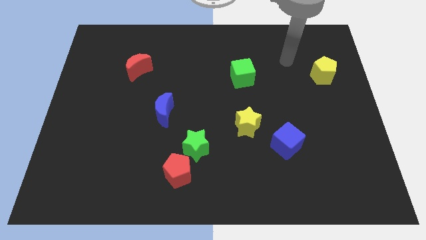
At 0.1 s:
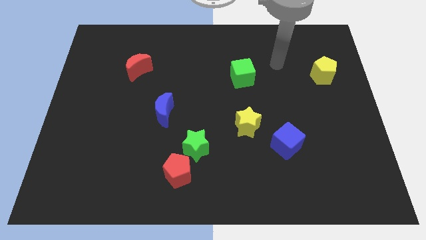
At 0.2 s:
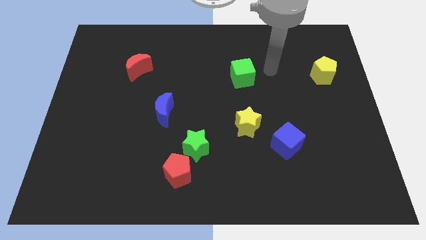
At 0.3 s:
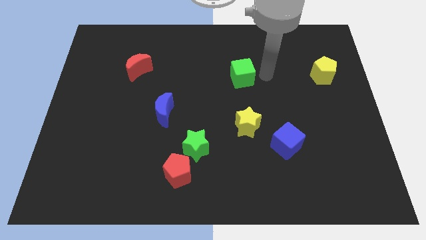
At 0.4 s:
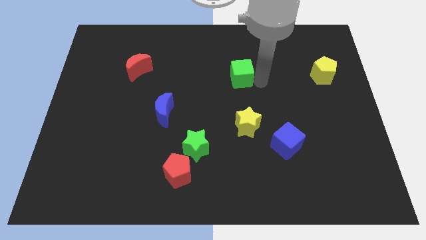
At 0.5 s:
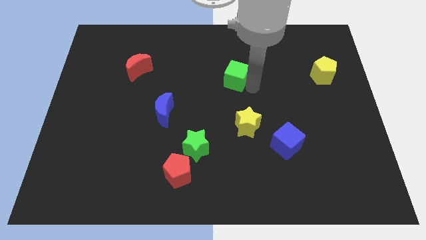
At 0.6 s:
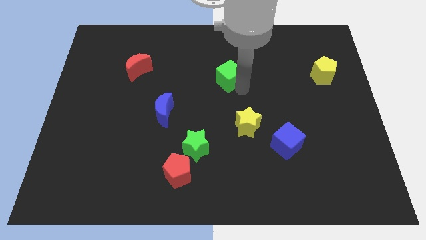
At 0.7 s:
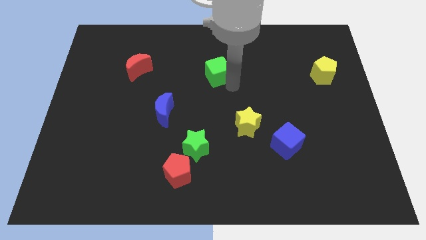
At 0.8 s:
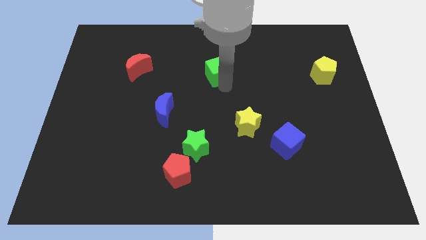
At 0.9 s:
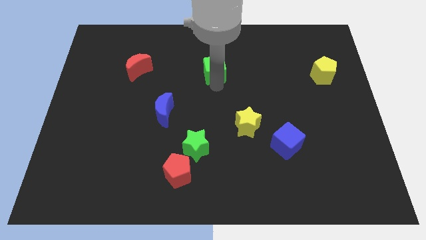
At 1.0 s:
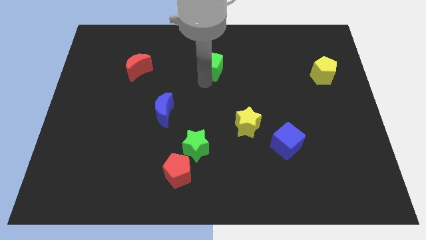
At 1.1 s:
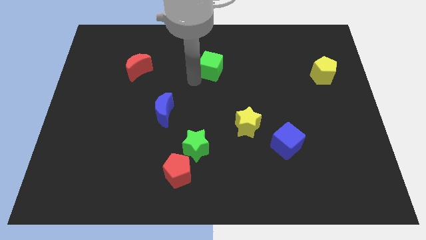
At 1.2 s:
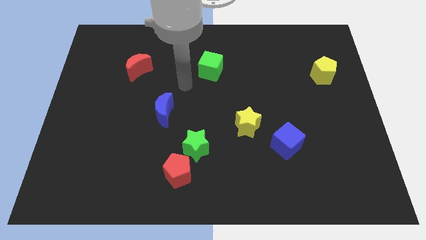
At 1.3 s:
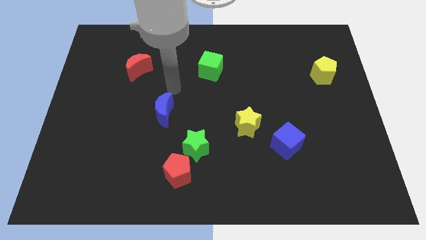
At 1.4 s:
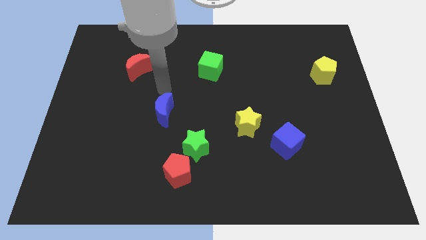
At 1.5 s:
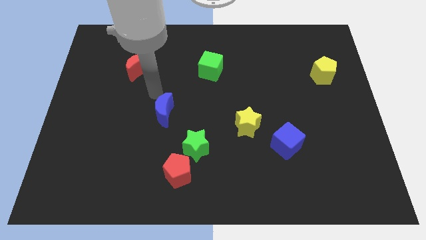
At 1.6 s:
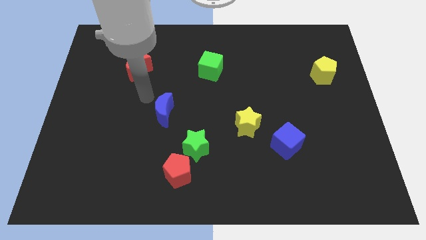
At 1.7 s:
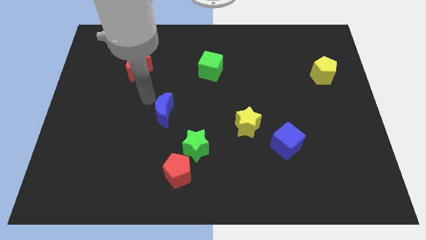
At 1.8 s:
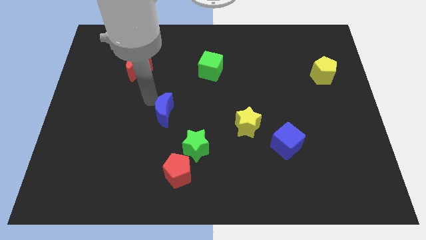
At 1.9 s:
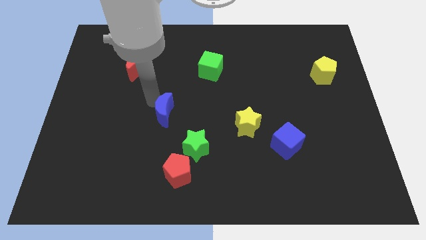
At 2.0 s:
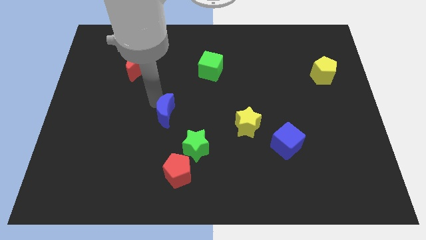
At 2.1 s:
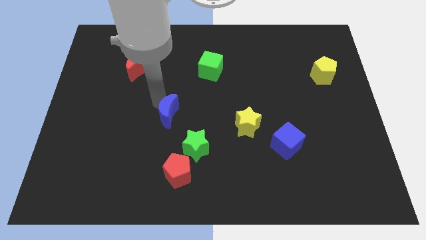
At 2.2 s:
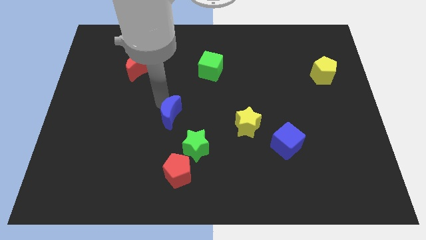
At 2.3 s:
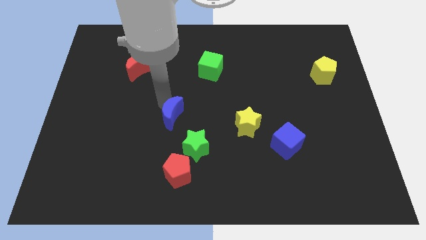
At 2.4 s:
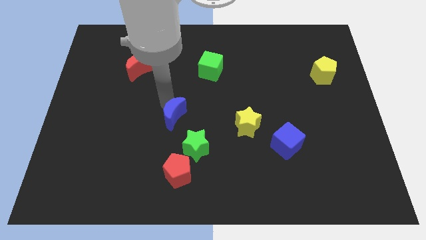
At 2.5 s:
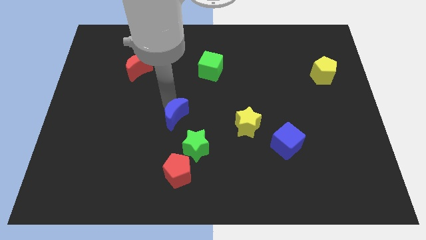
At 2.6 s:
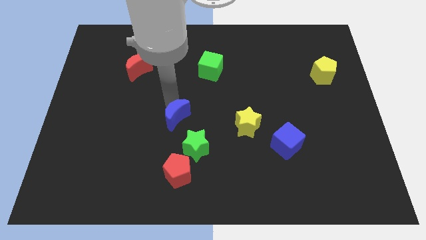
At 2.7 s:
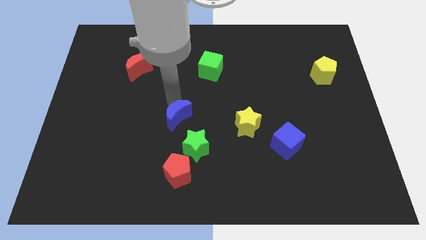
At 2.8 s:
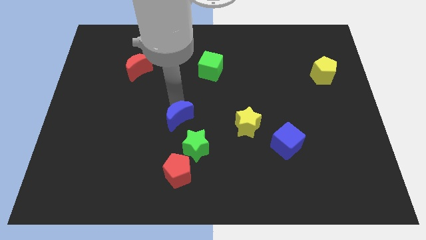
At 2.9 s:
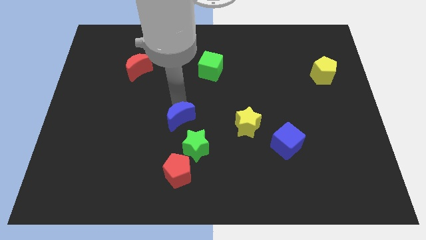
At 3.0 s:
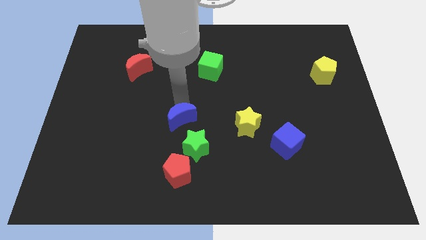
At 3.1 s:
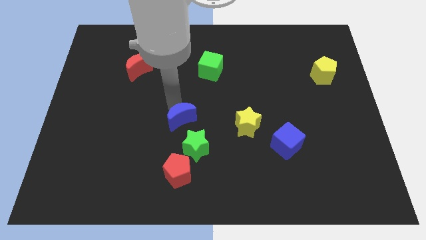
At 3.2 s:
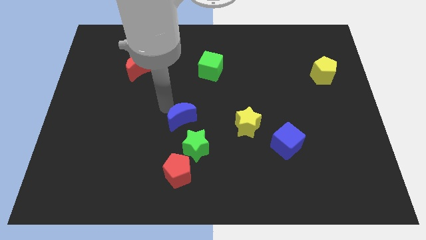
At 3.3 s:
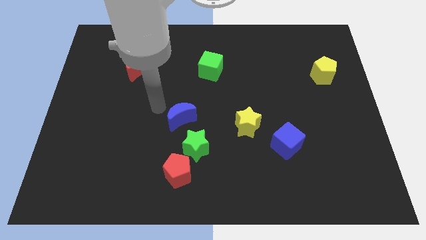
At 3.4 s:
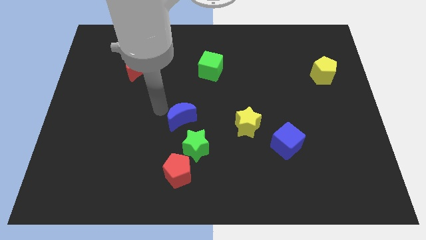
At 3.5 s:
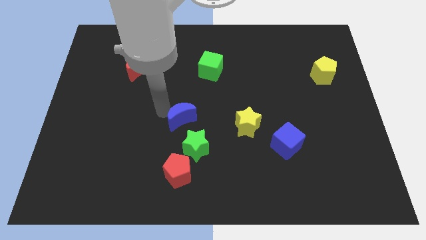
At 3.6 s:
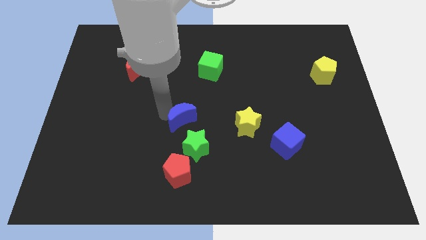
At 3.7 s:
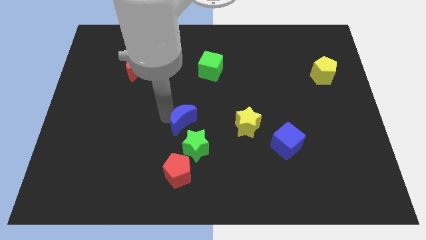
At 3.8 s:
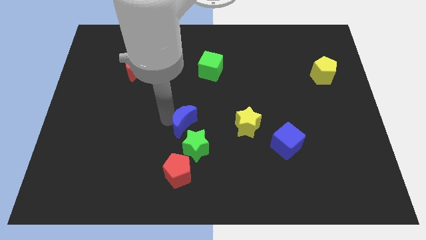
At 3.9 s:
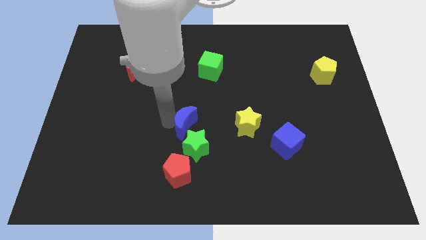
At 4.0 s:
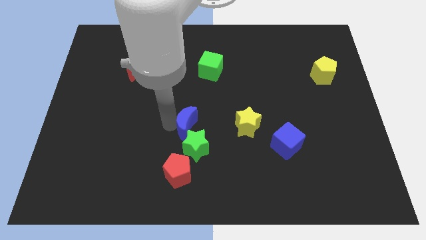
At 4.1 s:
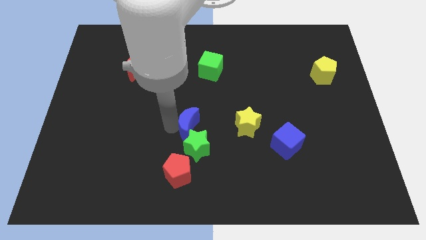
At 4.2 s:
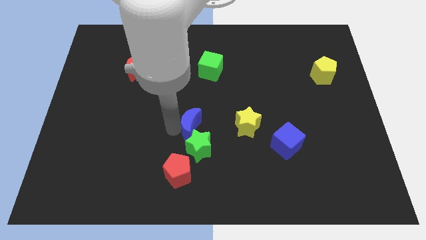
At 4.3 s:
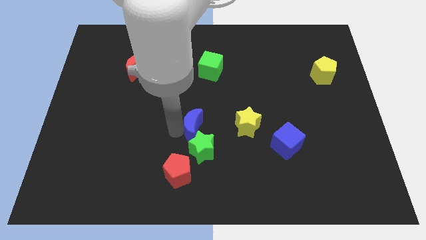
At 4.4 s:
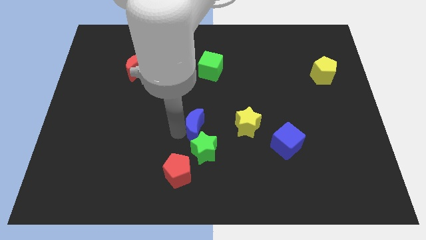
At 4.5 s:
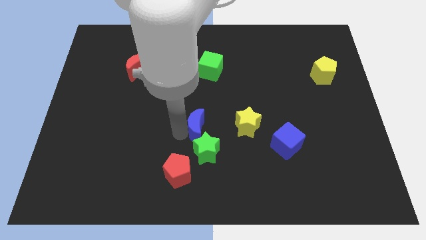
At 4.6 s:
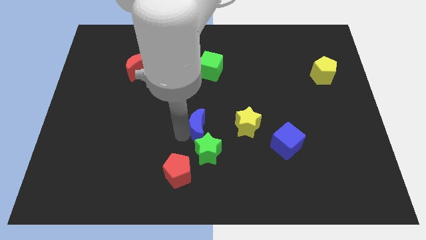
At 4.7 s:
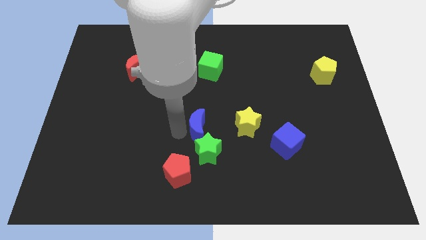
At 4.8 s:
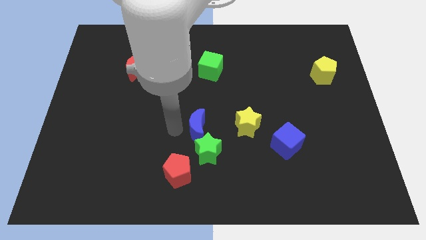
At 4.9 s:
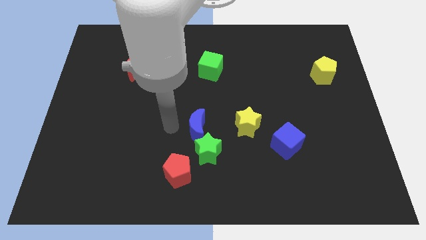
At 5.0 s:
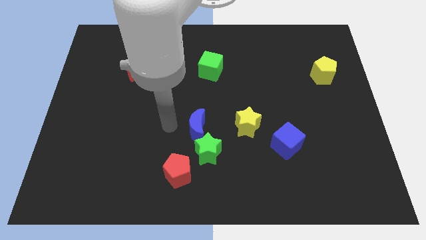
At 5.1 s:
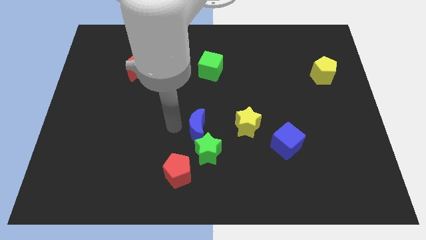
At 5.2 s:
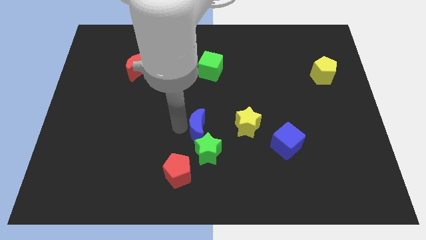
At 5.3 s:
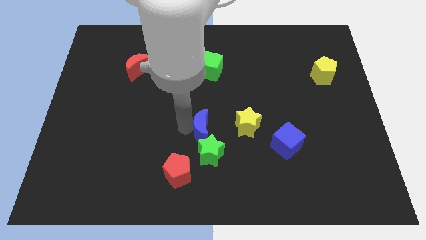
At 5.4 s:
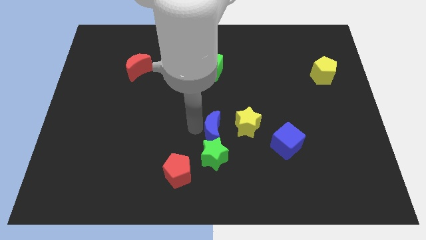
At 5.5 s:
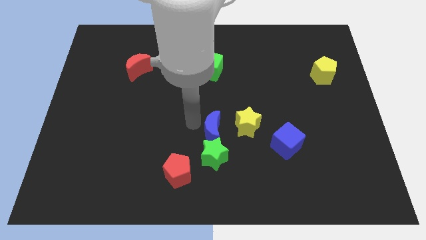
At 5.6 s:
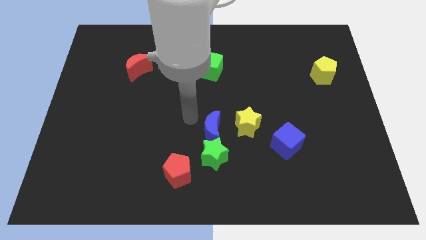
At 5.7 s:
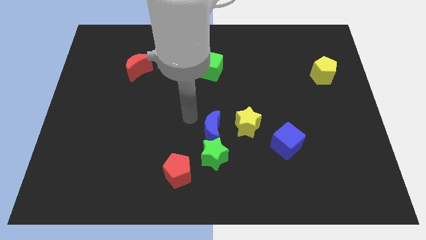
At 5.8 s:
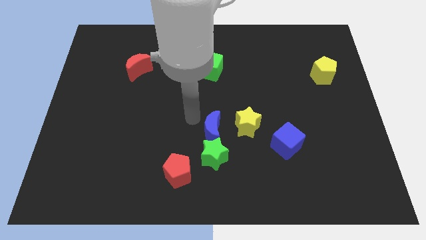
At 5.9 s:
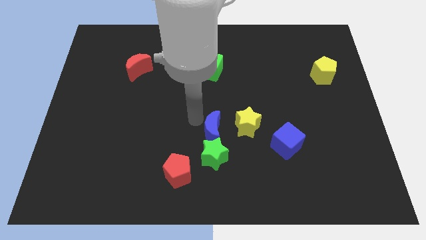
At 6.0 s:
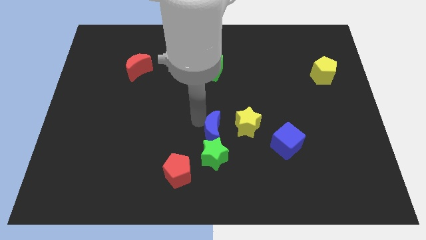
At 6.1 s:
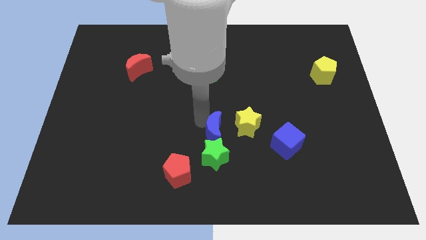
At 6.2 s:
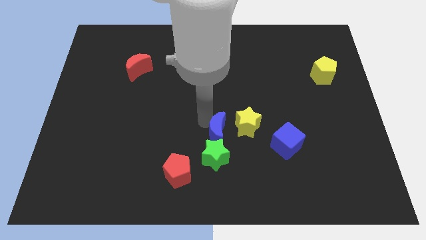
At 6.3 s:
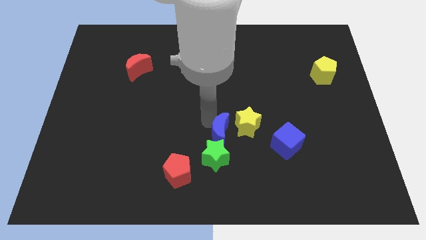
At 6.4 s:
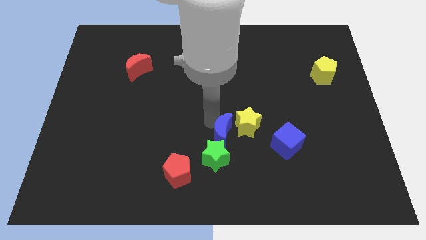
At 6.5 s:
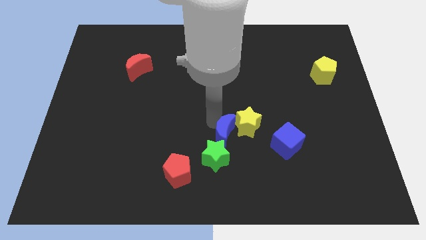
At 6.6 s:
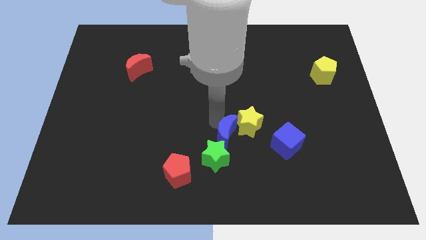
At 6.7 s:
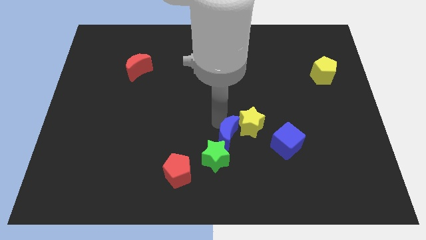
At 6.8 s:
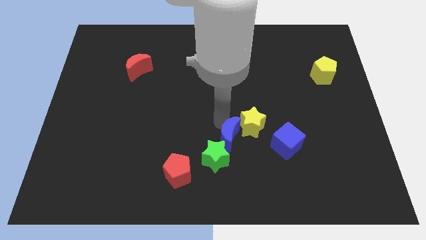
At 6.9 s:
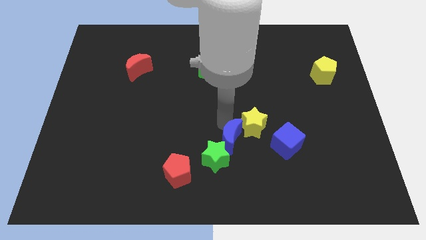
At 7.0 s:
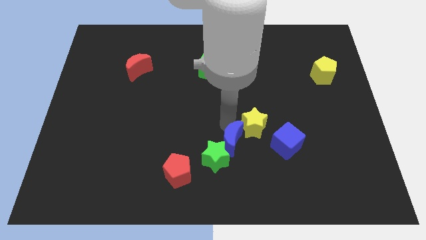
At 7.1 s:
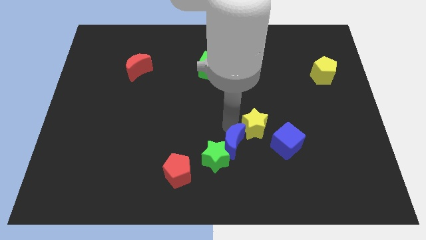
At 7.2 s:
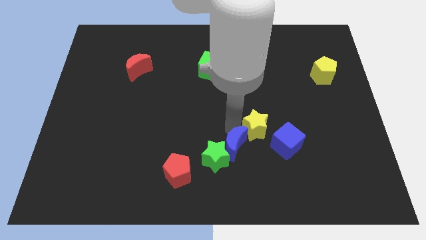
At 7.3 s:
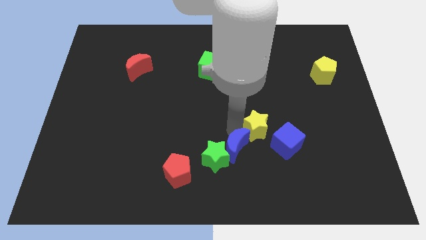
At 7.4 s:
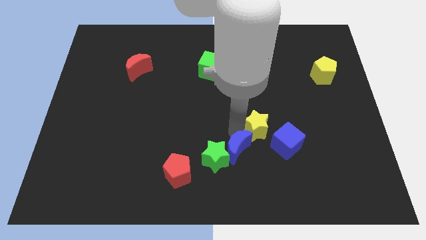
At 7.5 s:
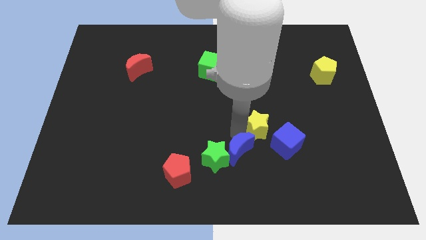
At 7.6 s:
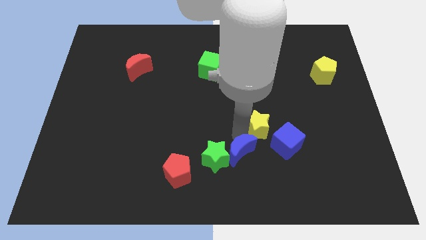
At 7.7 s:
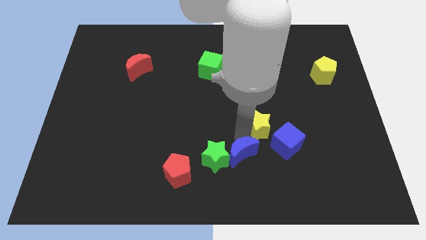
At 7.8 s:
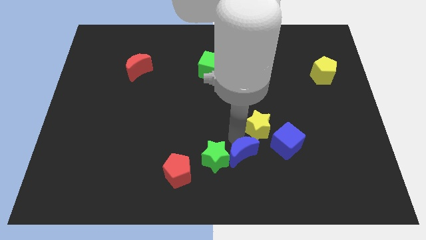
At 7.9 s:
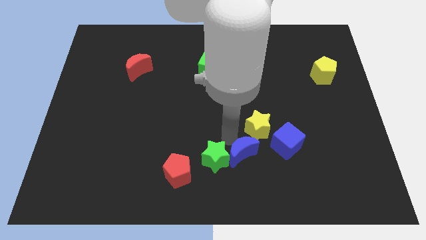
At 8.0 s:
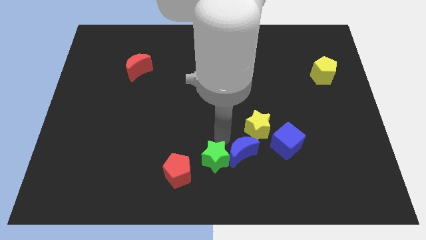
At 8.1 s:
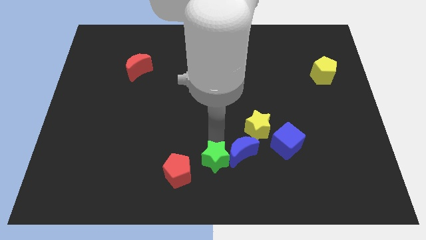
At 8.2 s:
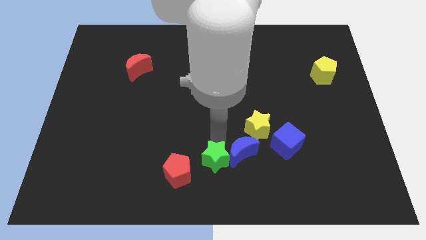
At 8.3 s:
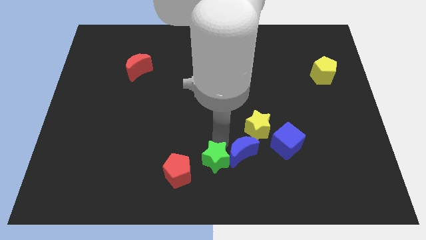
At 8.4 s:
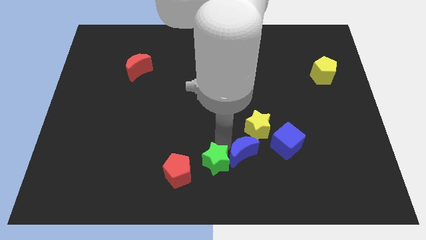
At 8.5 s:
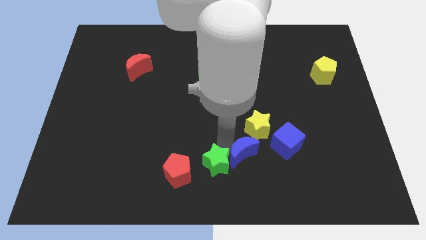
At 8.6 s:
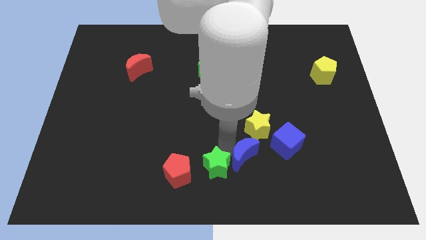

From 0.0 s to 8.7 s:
push the blue moon diagonally down and to the left of the blue cube
